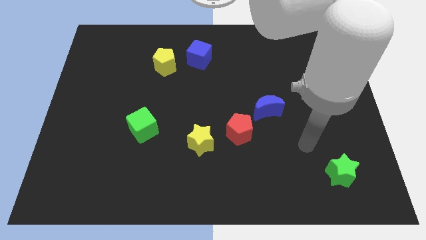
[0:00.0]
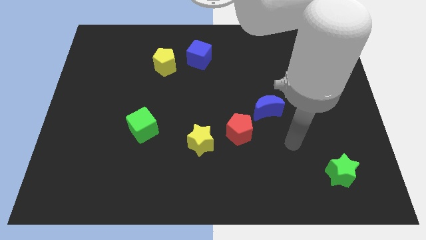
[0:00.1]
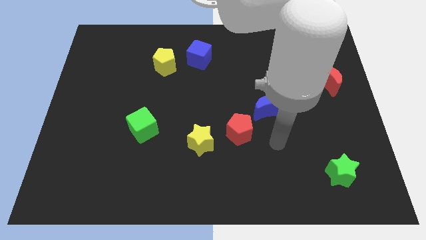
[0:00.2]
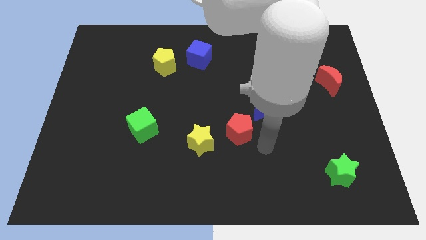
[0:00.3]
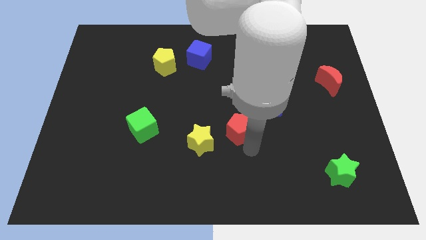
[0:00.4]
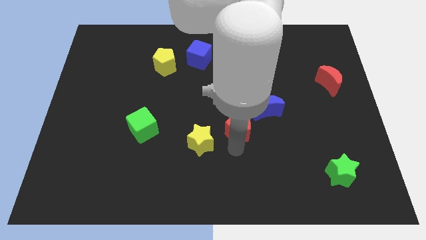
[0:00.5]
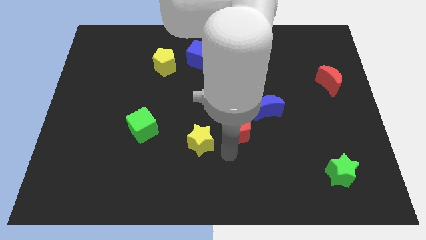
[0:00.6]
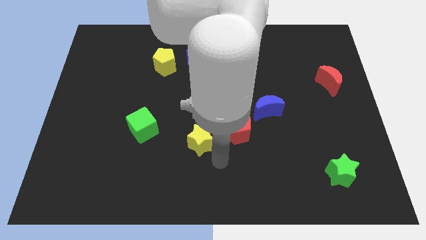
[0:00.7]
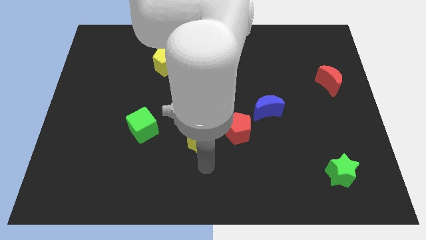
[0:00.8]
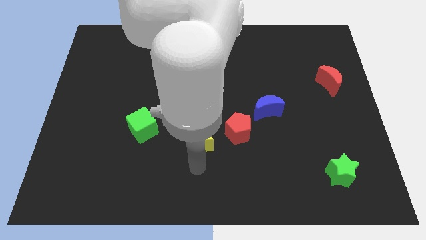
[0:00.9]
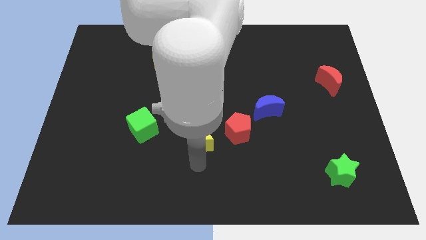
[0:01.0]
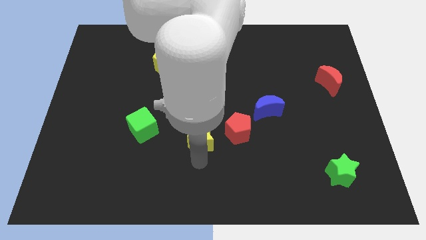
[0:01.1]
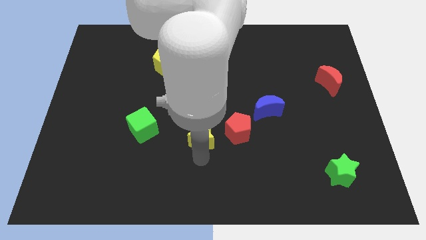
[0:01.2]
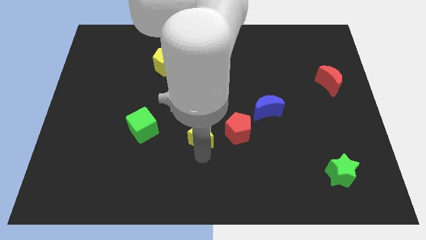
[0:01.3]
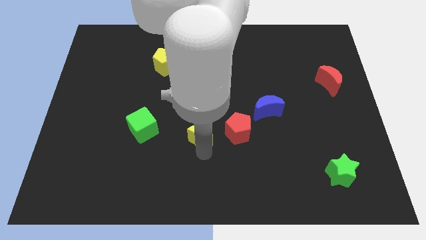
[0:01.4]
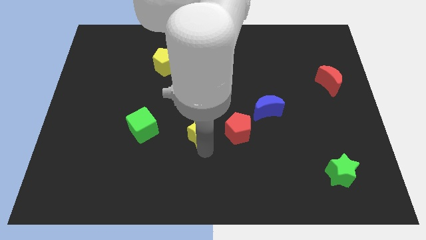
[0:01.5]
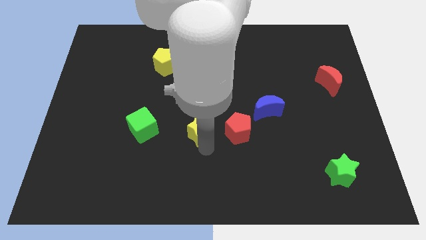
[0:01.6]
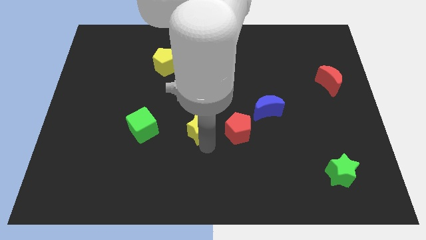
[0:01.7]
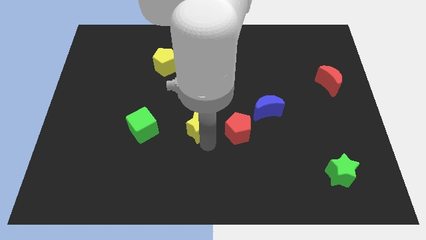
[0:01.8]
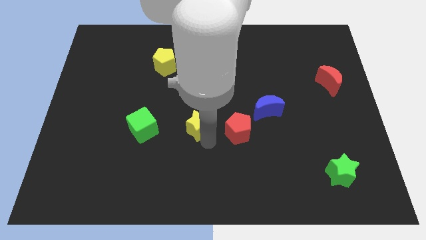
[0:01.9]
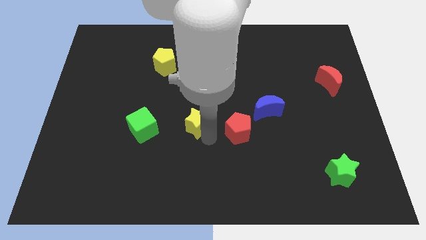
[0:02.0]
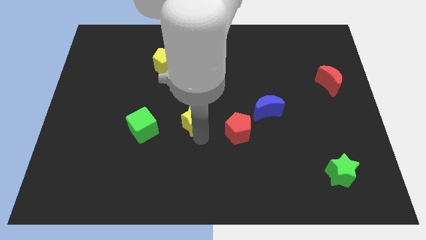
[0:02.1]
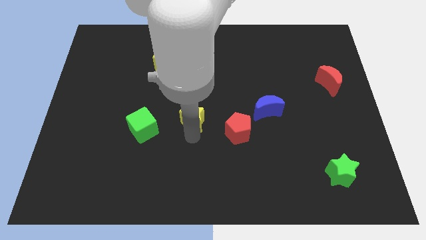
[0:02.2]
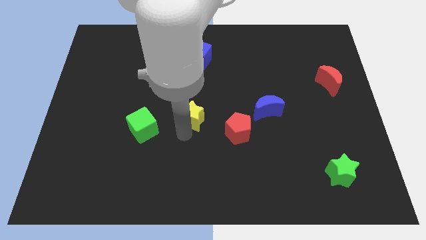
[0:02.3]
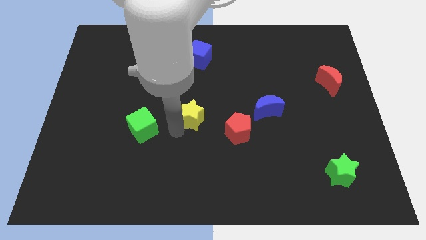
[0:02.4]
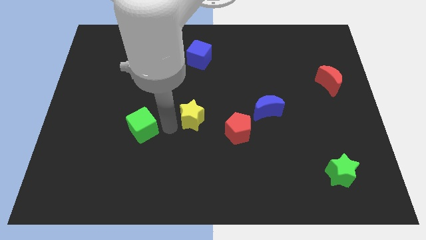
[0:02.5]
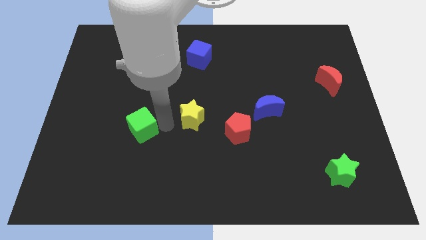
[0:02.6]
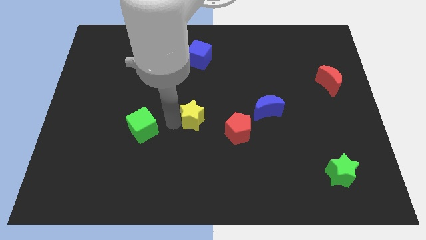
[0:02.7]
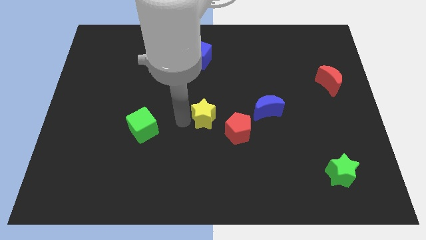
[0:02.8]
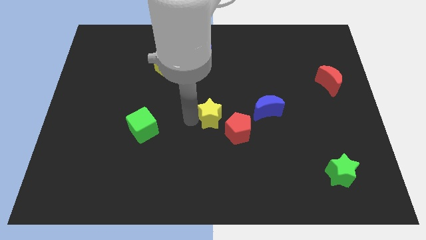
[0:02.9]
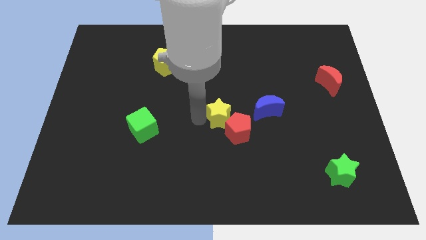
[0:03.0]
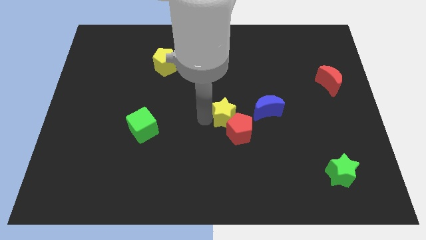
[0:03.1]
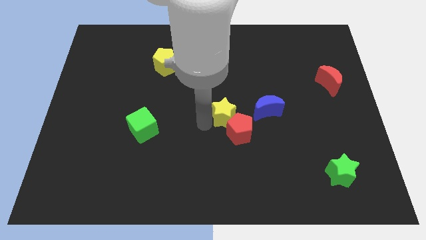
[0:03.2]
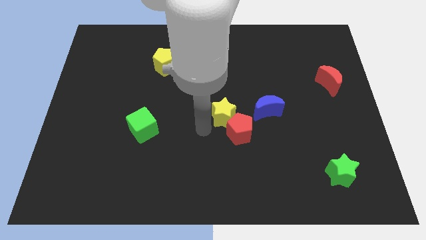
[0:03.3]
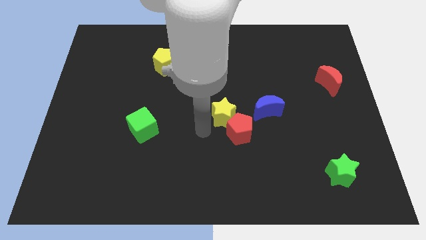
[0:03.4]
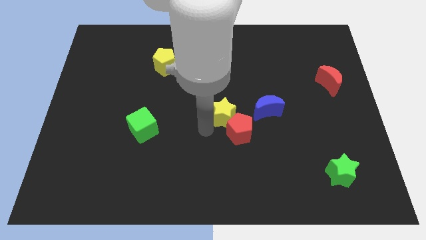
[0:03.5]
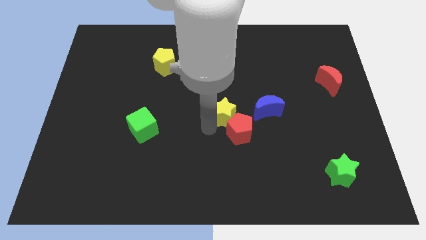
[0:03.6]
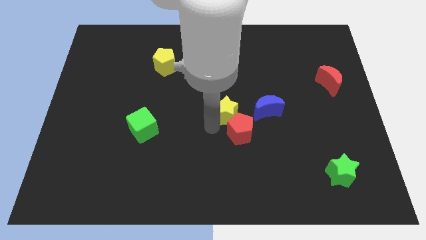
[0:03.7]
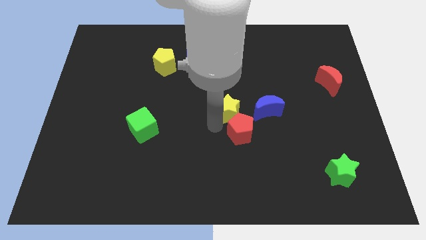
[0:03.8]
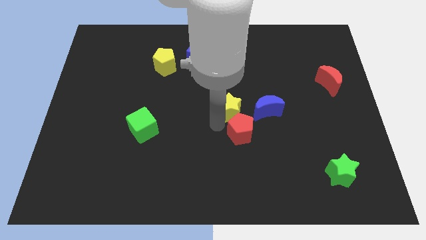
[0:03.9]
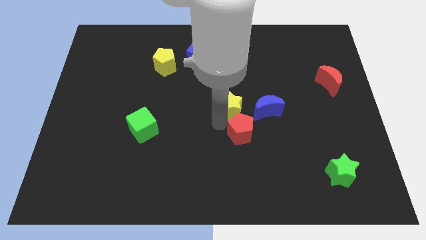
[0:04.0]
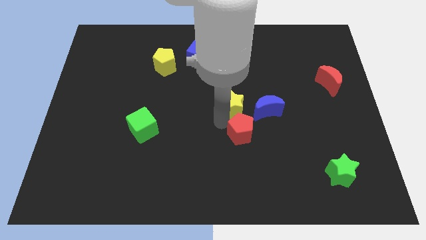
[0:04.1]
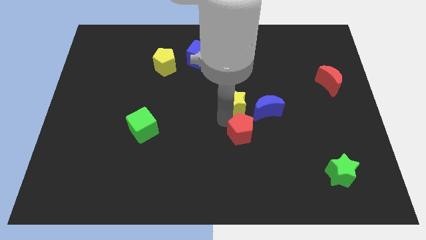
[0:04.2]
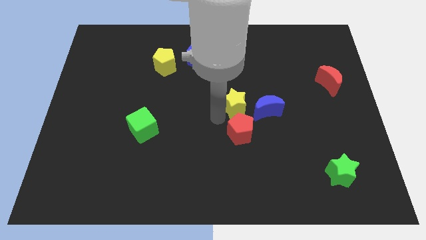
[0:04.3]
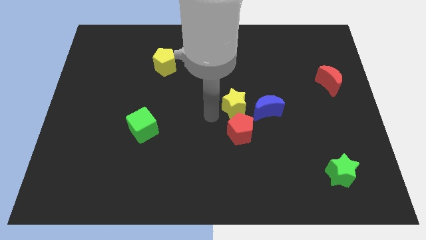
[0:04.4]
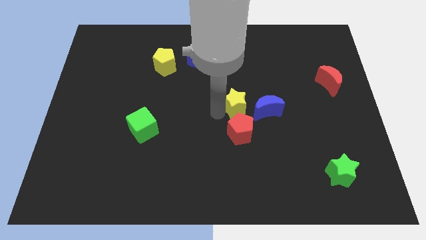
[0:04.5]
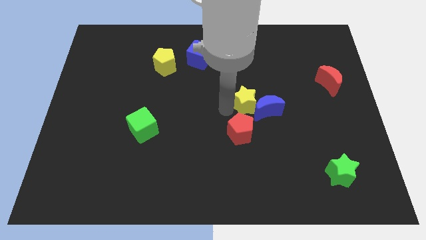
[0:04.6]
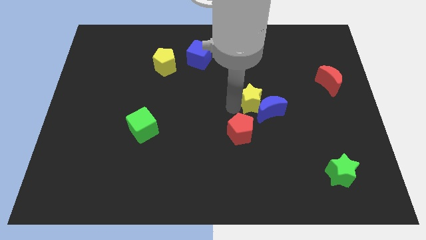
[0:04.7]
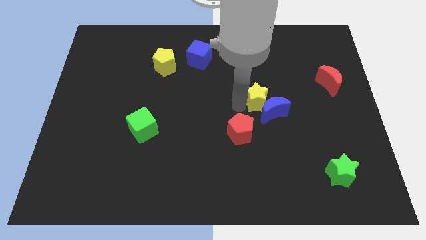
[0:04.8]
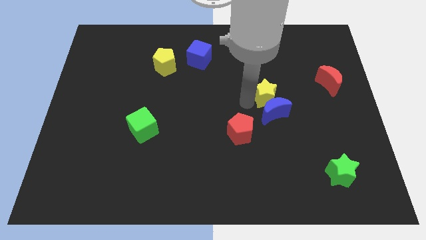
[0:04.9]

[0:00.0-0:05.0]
move the yellow star to the top right of the blue moon
